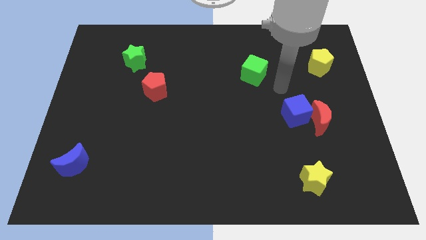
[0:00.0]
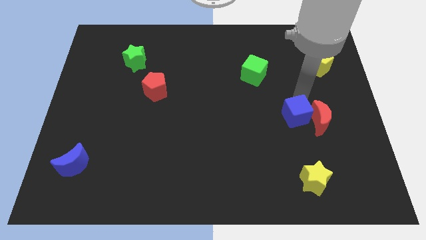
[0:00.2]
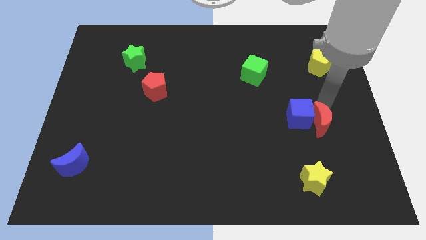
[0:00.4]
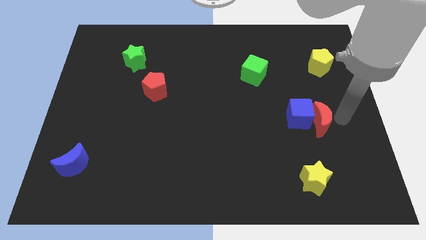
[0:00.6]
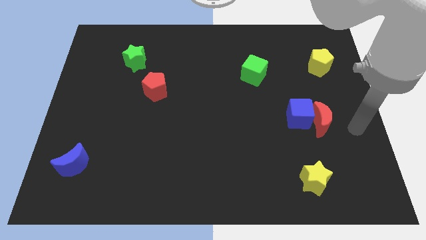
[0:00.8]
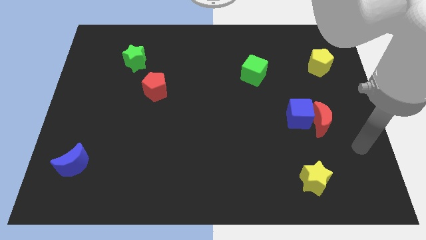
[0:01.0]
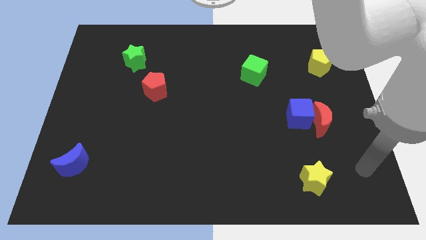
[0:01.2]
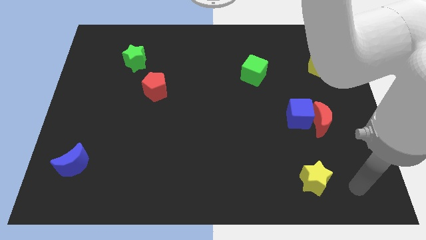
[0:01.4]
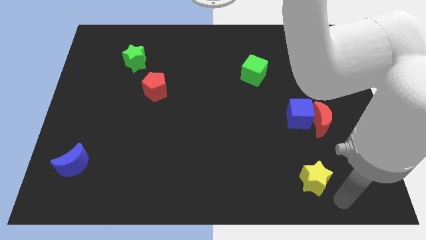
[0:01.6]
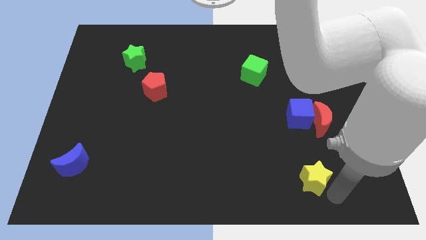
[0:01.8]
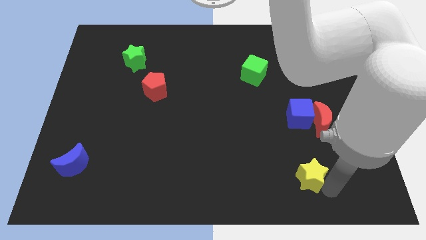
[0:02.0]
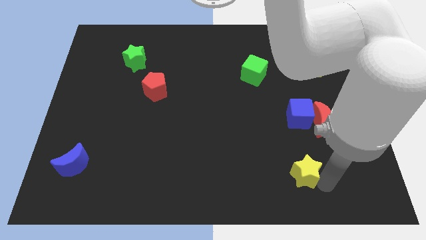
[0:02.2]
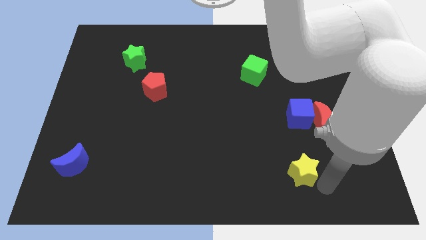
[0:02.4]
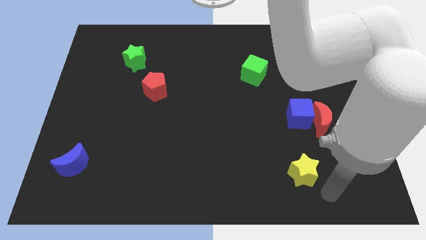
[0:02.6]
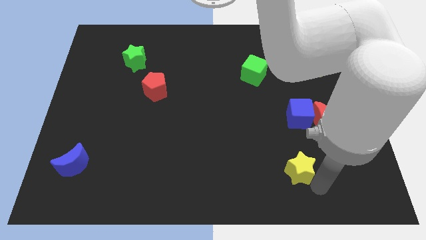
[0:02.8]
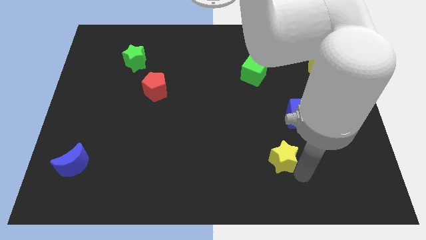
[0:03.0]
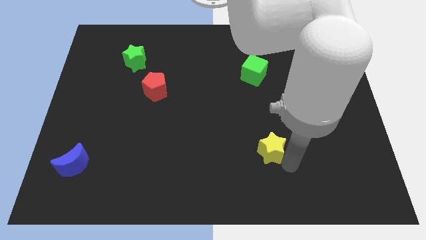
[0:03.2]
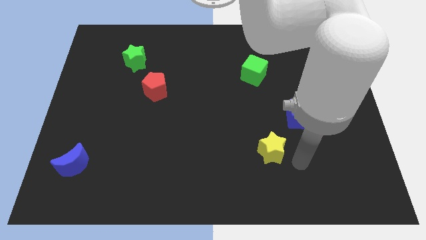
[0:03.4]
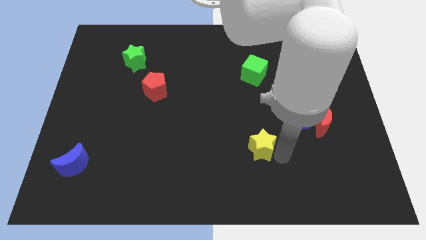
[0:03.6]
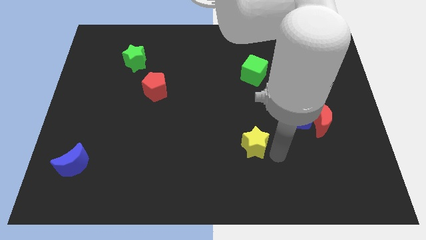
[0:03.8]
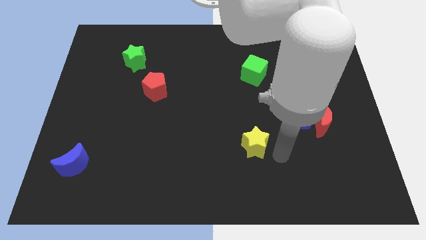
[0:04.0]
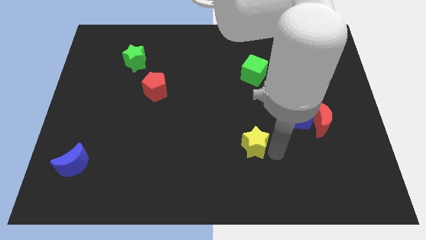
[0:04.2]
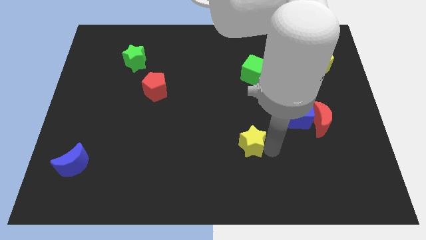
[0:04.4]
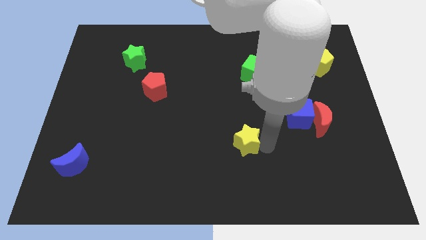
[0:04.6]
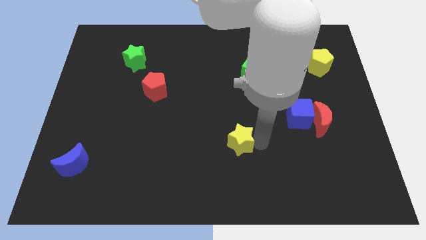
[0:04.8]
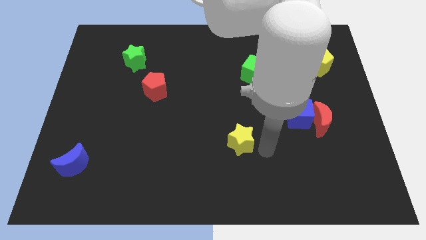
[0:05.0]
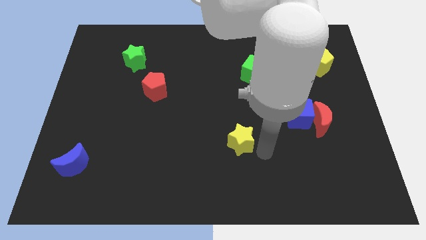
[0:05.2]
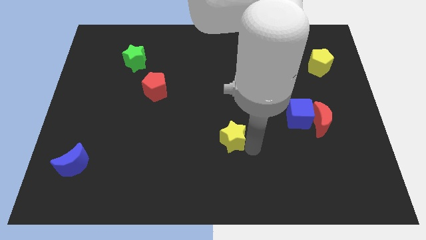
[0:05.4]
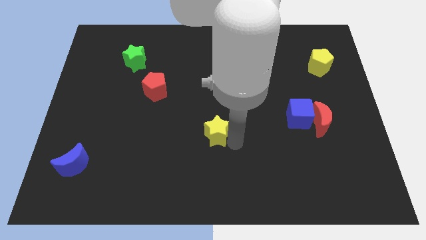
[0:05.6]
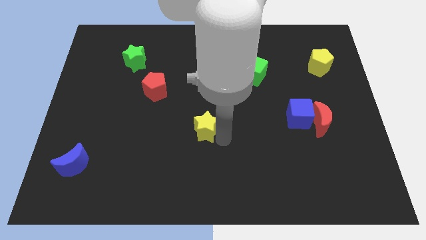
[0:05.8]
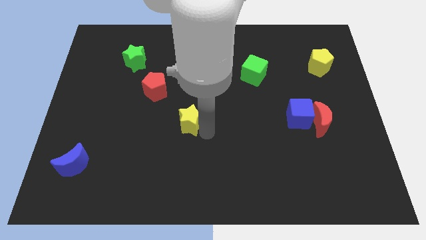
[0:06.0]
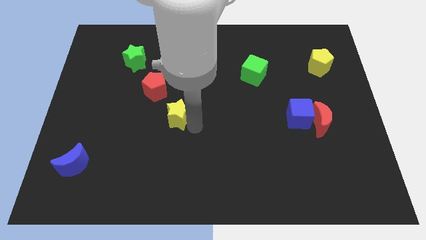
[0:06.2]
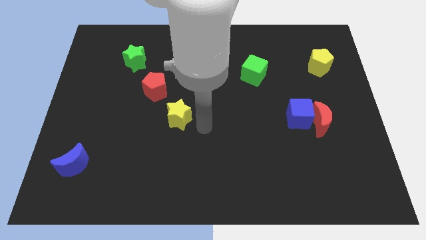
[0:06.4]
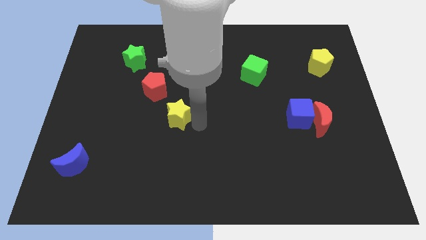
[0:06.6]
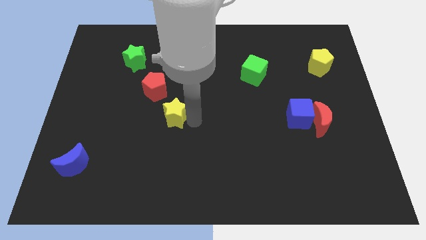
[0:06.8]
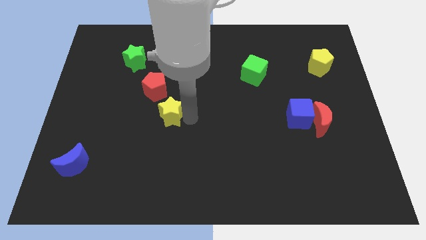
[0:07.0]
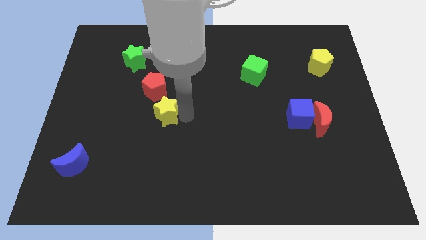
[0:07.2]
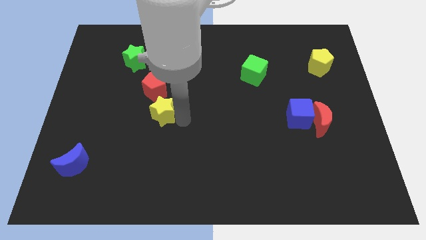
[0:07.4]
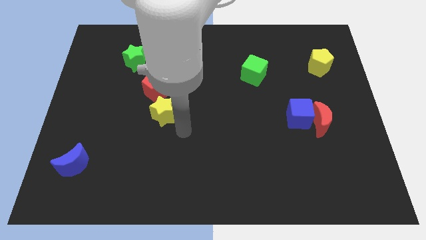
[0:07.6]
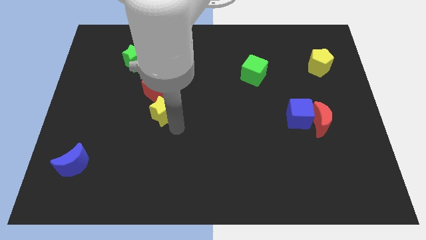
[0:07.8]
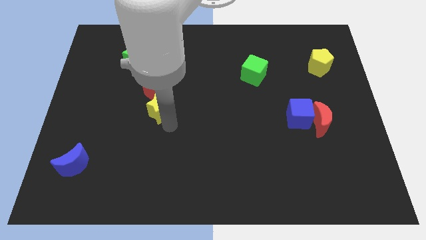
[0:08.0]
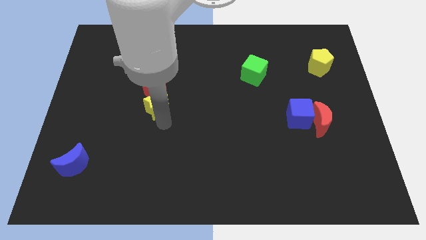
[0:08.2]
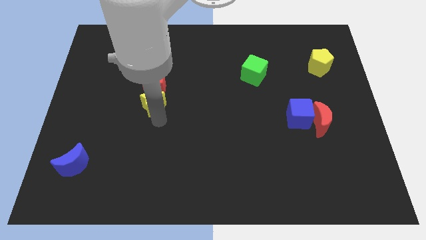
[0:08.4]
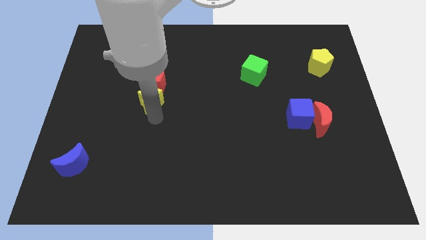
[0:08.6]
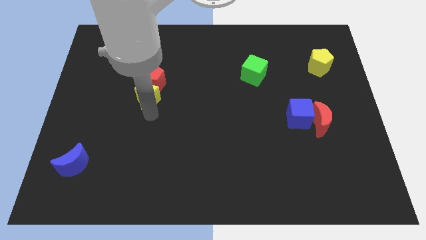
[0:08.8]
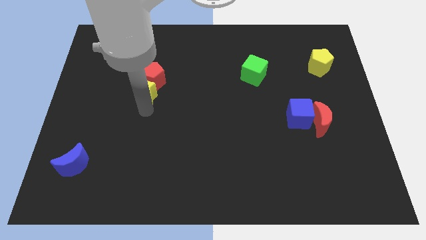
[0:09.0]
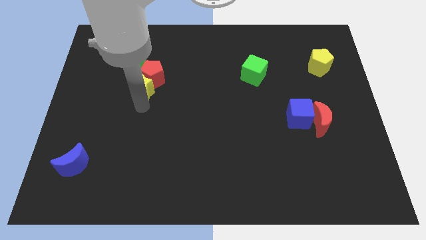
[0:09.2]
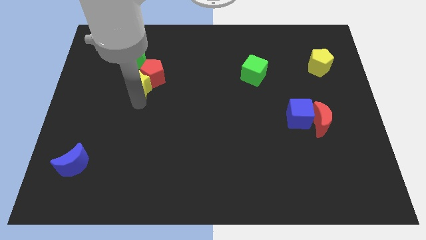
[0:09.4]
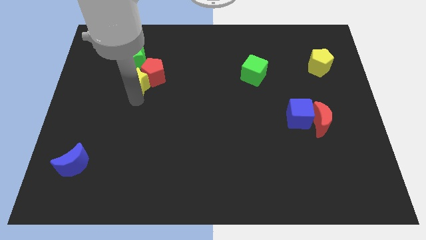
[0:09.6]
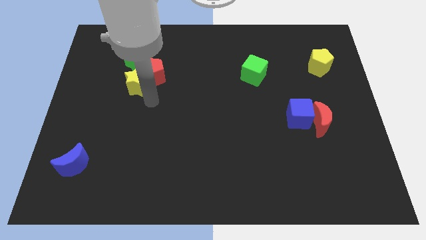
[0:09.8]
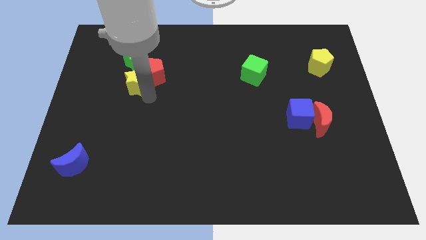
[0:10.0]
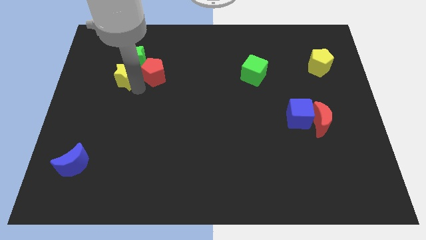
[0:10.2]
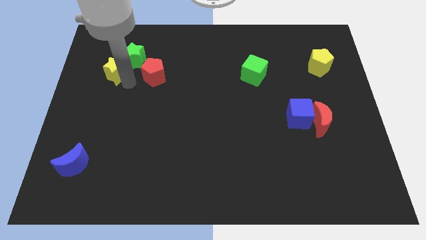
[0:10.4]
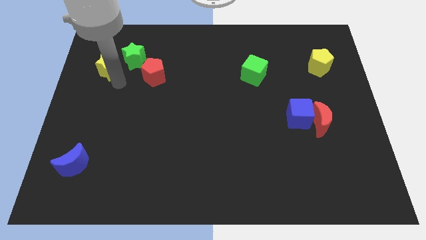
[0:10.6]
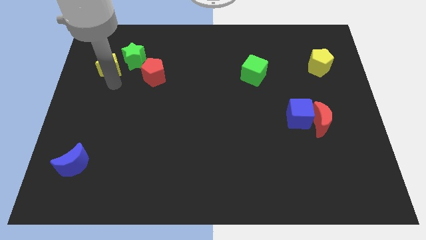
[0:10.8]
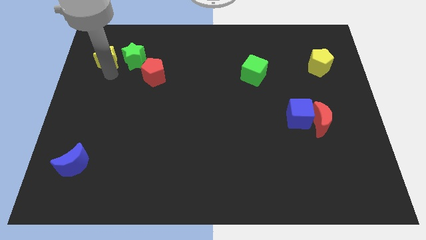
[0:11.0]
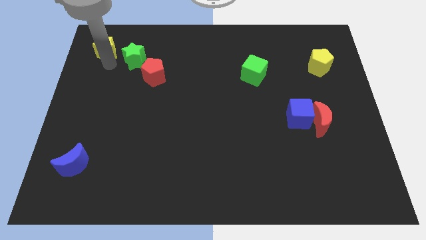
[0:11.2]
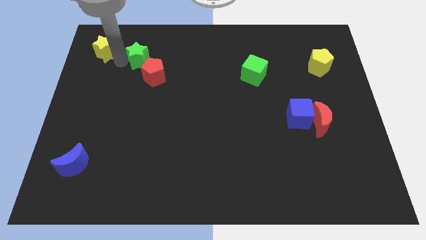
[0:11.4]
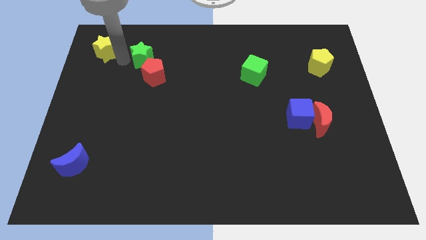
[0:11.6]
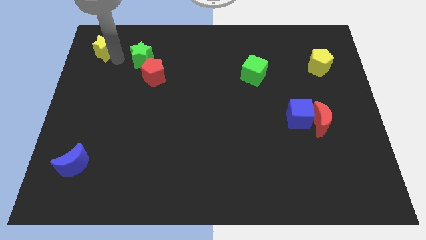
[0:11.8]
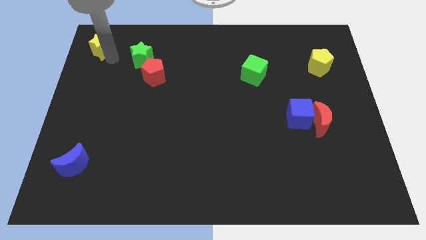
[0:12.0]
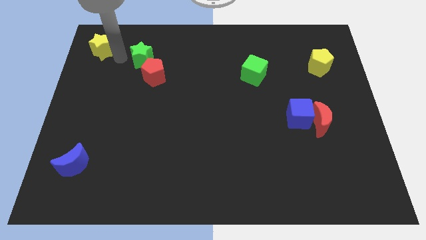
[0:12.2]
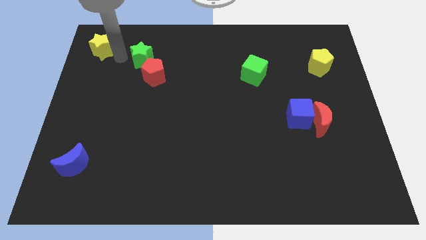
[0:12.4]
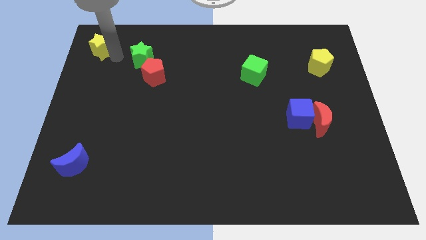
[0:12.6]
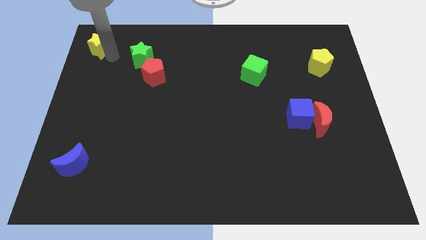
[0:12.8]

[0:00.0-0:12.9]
push the yellow star to the top left corner

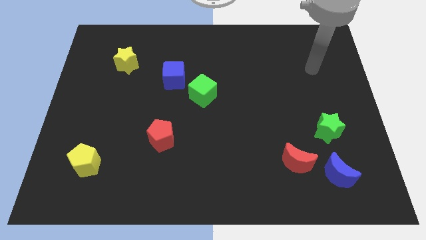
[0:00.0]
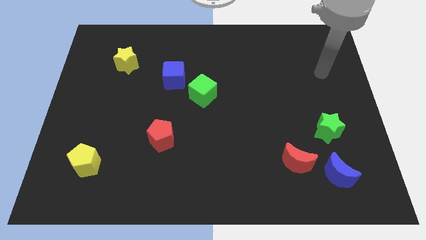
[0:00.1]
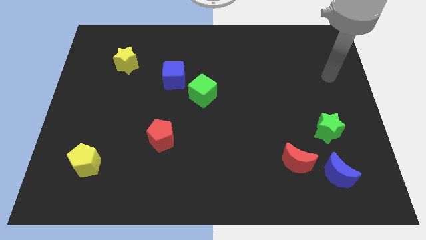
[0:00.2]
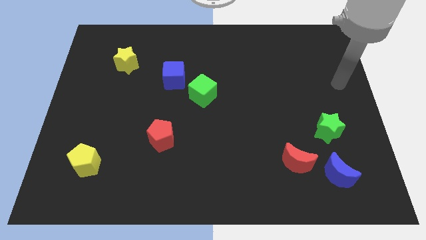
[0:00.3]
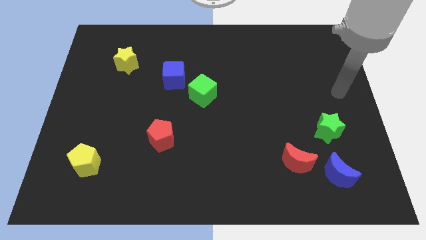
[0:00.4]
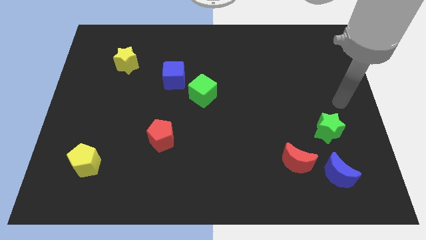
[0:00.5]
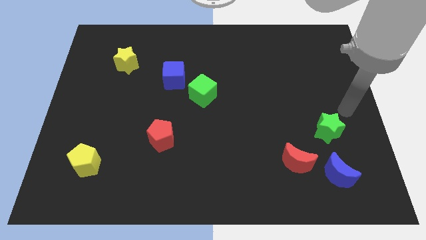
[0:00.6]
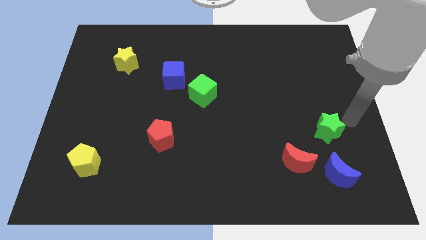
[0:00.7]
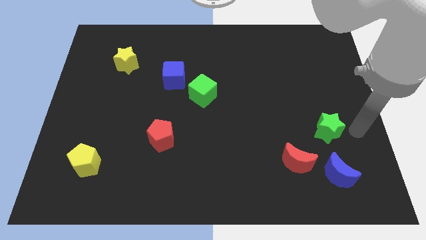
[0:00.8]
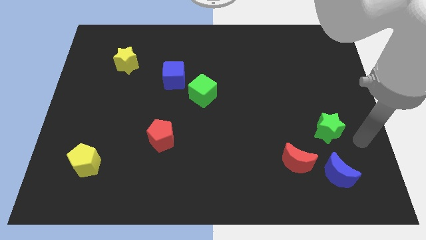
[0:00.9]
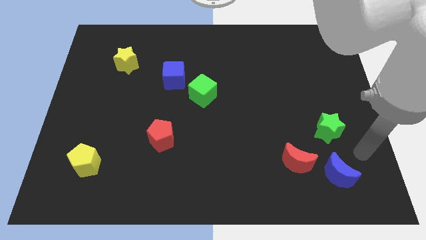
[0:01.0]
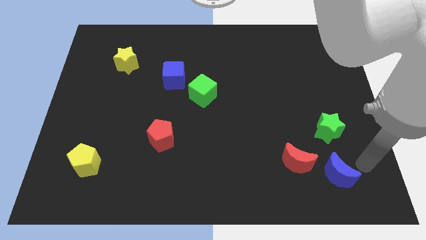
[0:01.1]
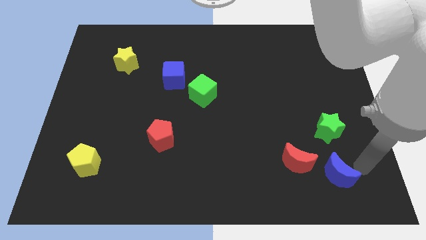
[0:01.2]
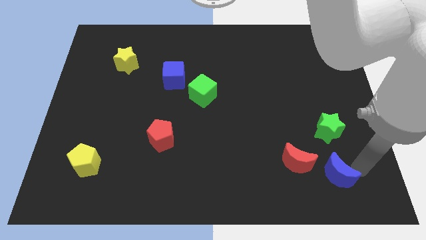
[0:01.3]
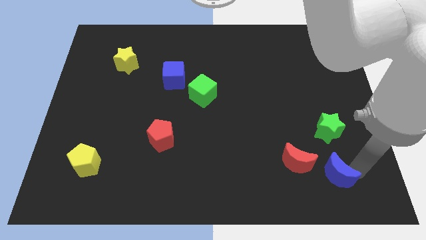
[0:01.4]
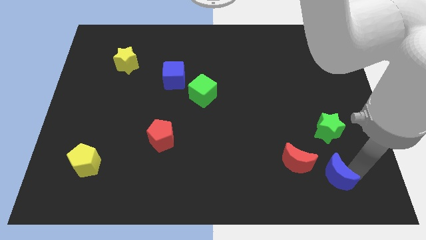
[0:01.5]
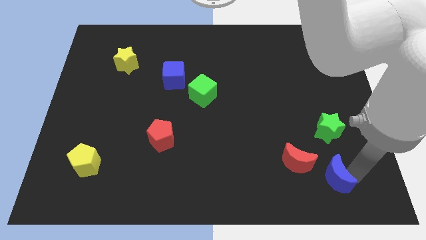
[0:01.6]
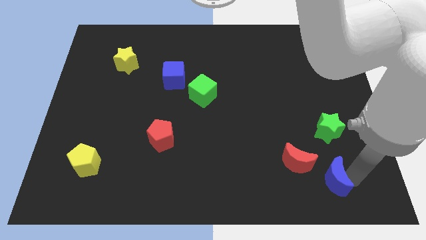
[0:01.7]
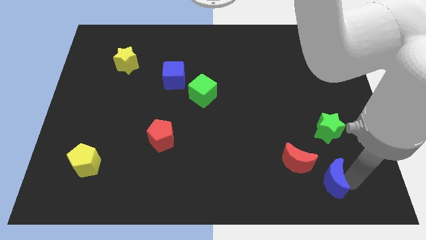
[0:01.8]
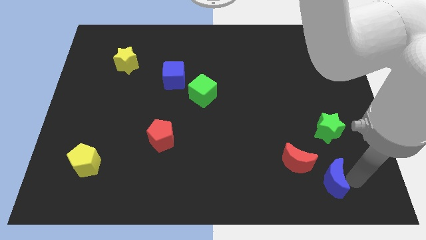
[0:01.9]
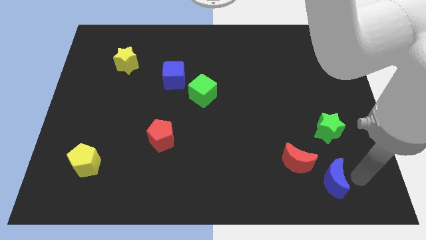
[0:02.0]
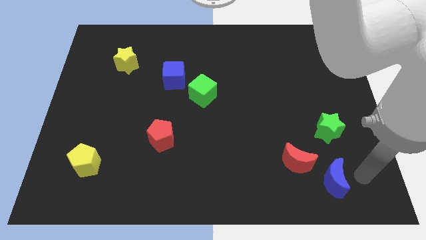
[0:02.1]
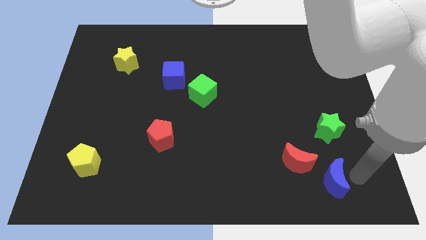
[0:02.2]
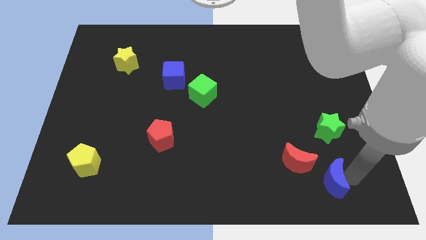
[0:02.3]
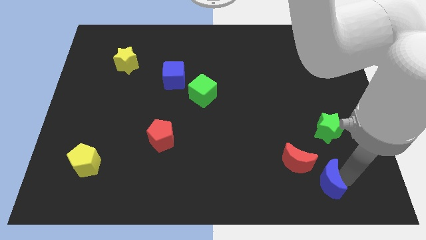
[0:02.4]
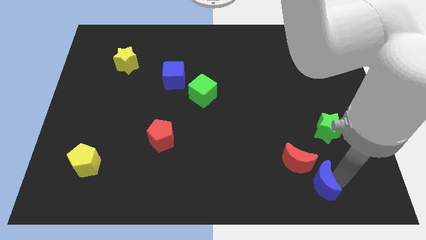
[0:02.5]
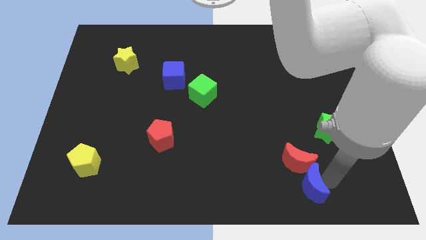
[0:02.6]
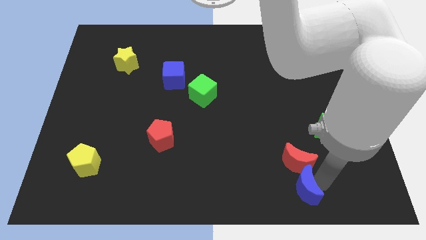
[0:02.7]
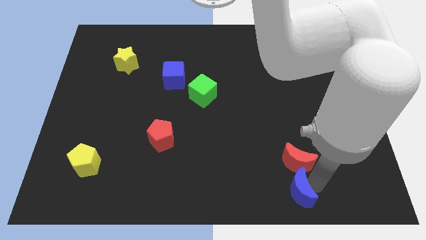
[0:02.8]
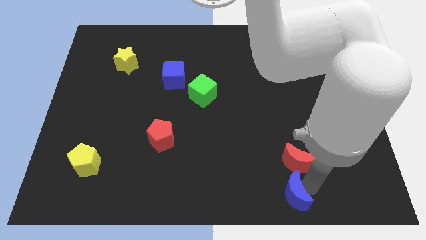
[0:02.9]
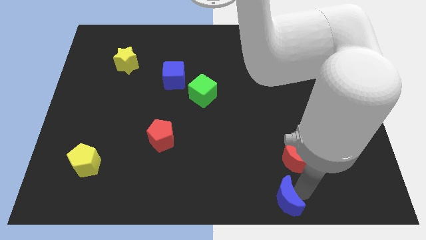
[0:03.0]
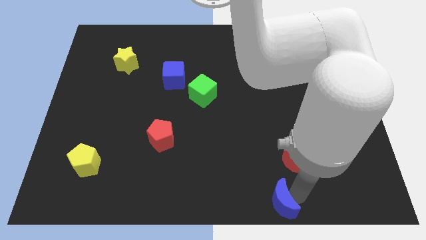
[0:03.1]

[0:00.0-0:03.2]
push the blue moon to the bottom
